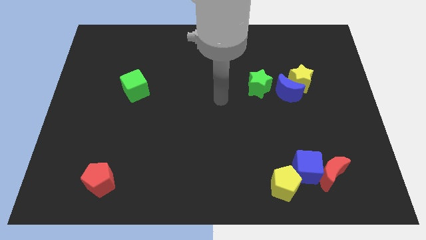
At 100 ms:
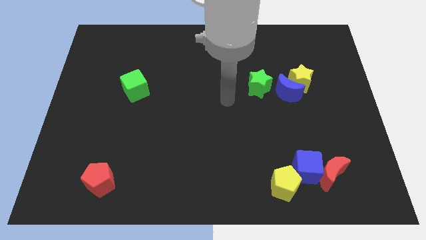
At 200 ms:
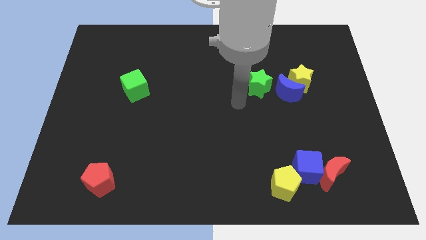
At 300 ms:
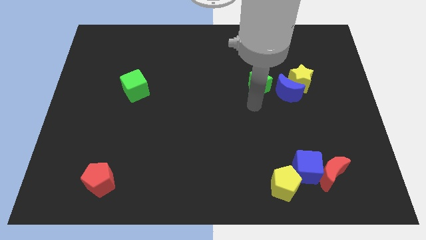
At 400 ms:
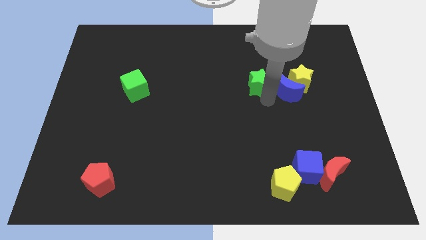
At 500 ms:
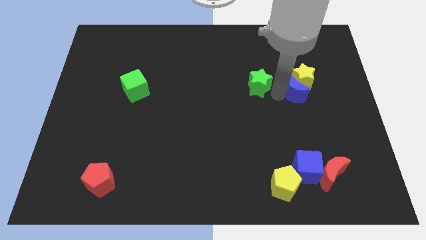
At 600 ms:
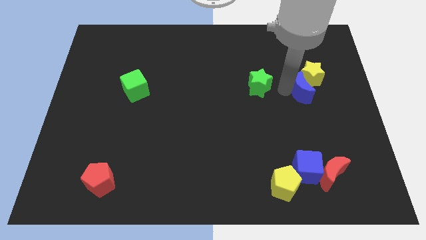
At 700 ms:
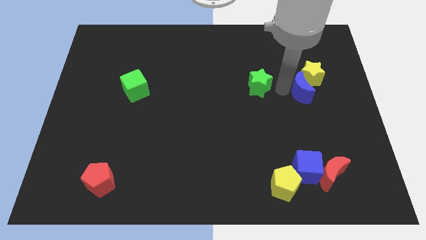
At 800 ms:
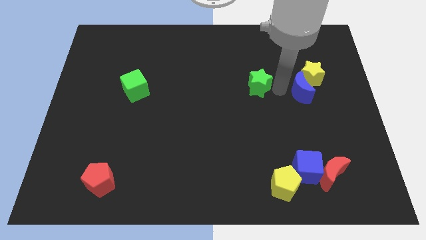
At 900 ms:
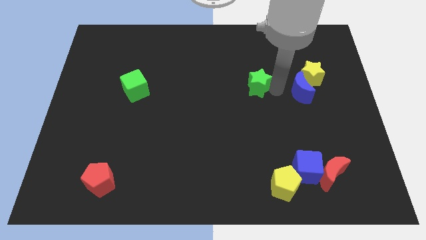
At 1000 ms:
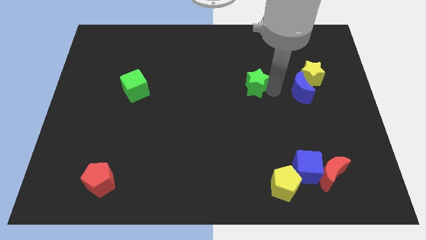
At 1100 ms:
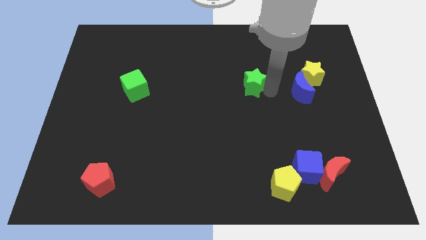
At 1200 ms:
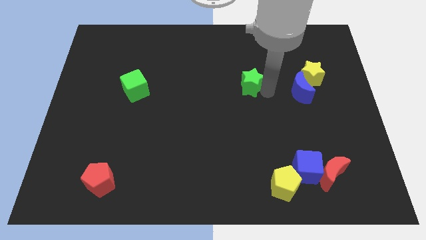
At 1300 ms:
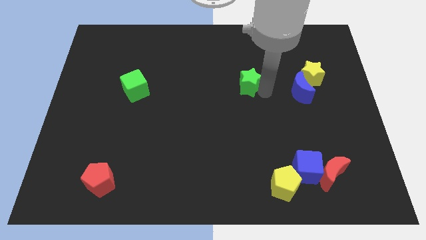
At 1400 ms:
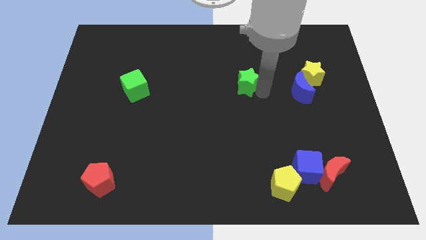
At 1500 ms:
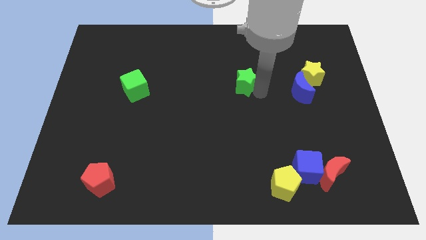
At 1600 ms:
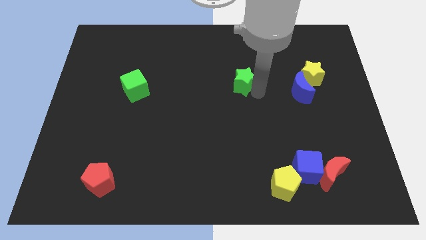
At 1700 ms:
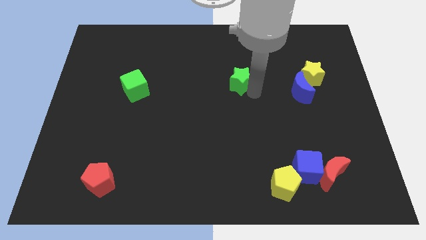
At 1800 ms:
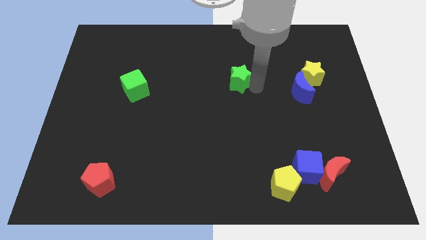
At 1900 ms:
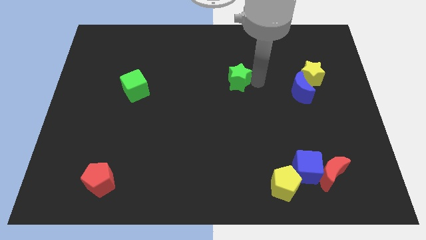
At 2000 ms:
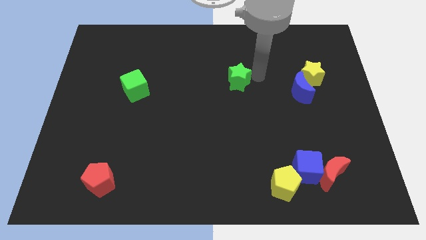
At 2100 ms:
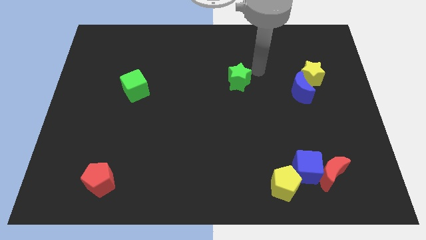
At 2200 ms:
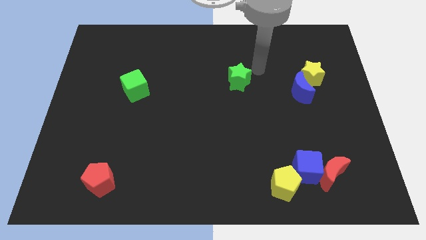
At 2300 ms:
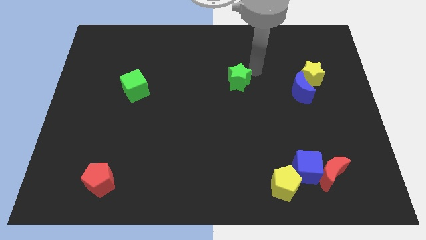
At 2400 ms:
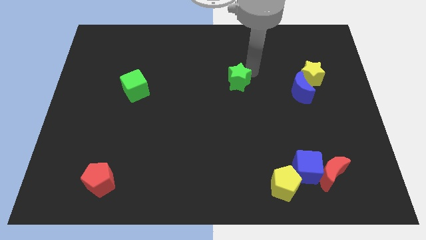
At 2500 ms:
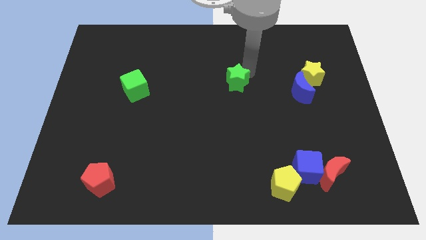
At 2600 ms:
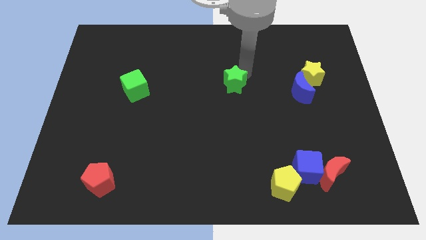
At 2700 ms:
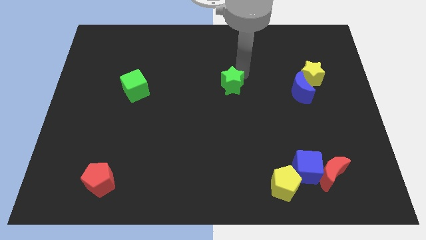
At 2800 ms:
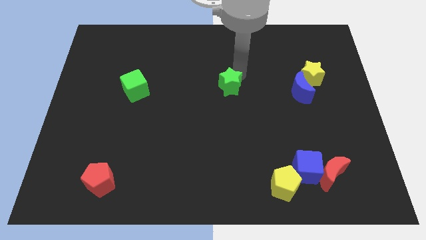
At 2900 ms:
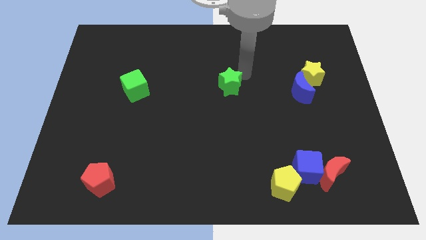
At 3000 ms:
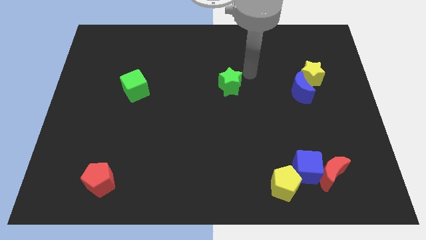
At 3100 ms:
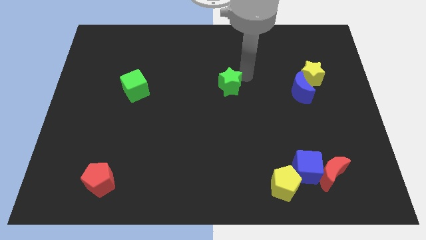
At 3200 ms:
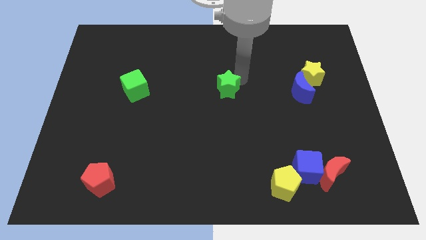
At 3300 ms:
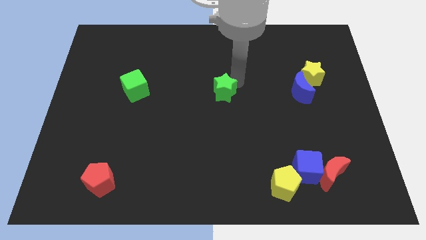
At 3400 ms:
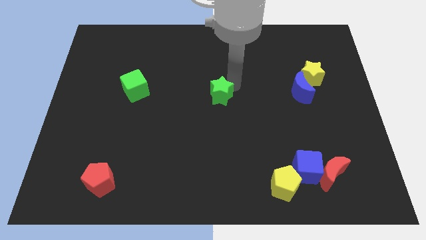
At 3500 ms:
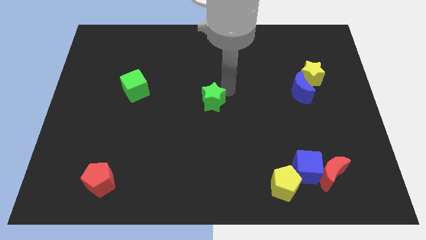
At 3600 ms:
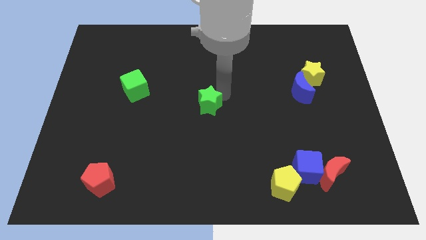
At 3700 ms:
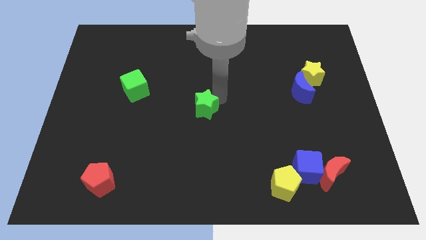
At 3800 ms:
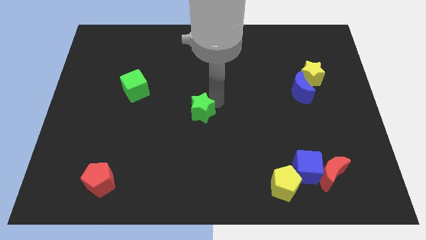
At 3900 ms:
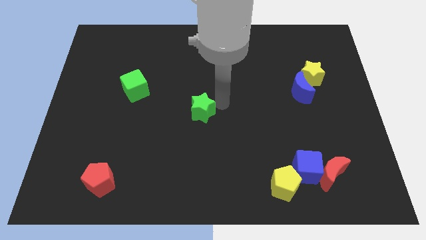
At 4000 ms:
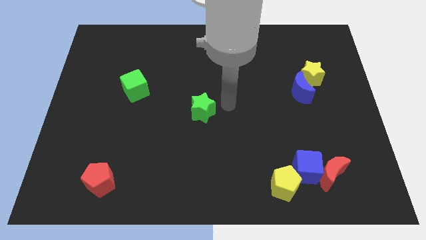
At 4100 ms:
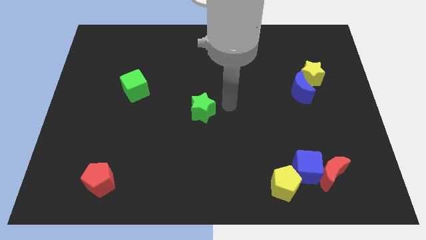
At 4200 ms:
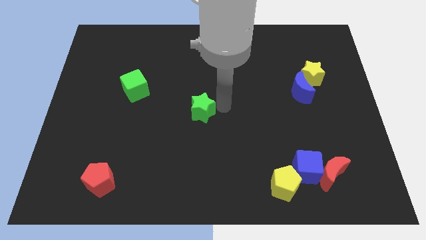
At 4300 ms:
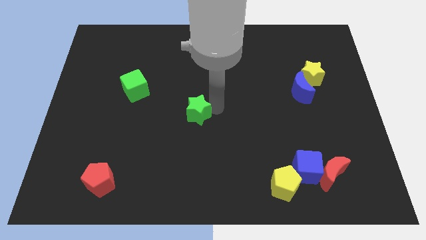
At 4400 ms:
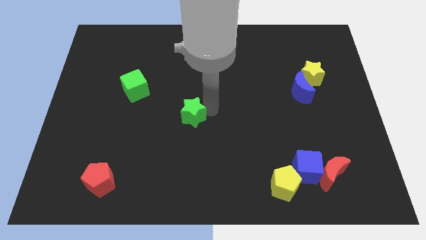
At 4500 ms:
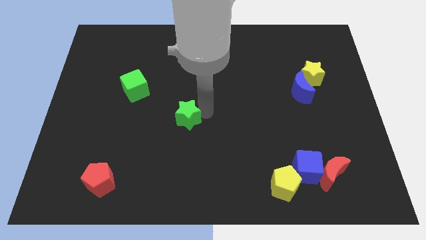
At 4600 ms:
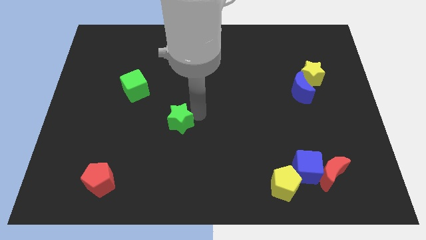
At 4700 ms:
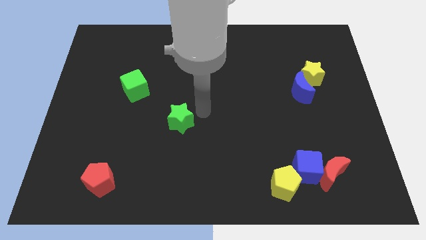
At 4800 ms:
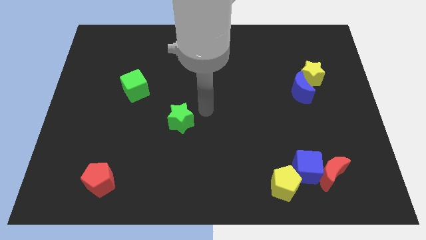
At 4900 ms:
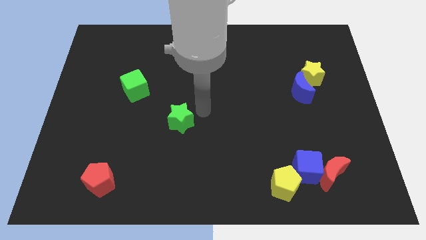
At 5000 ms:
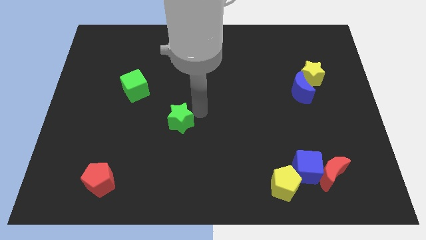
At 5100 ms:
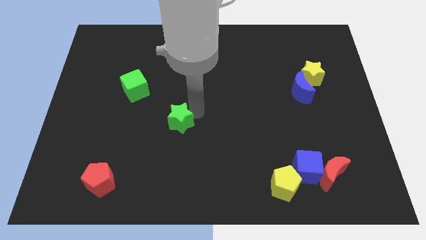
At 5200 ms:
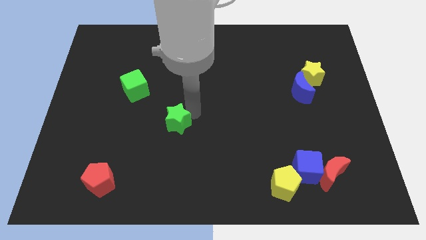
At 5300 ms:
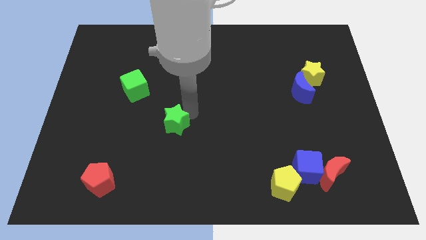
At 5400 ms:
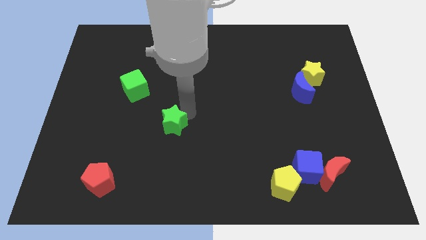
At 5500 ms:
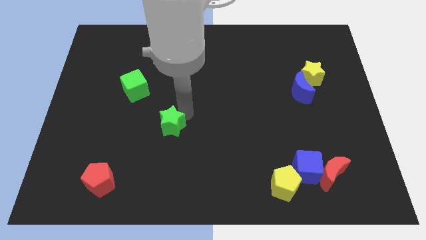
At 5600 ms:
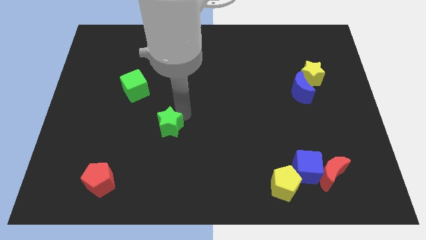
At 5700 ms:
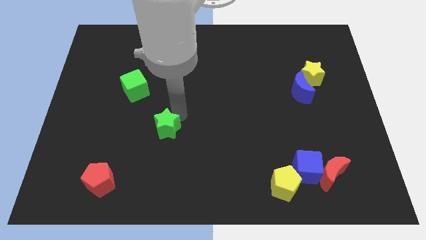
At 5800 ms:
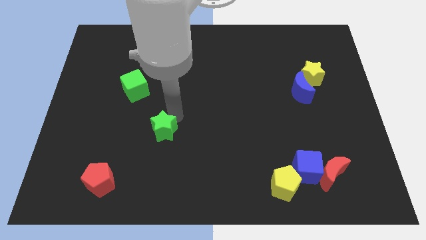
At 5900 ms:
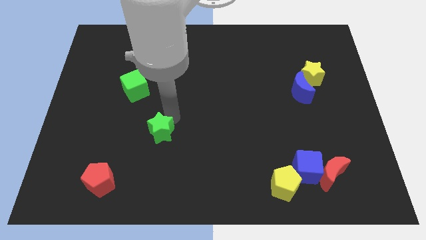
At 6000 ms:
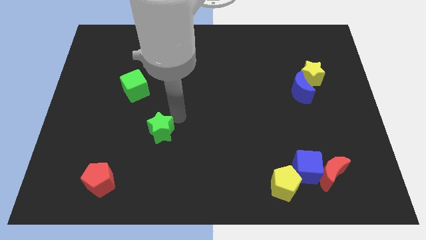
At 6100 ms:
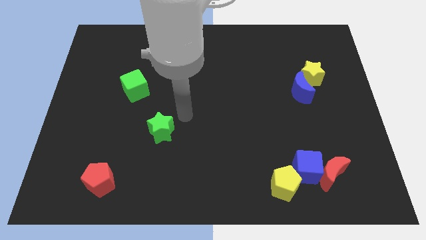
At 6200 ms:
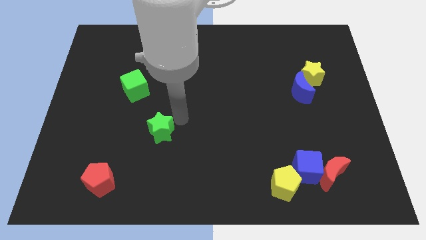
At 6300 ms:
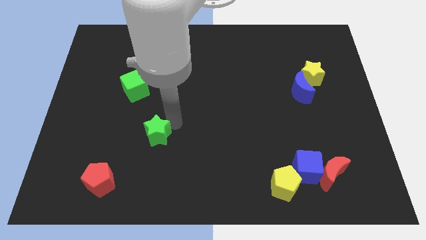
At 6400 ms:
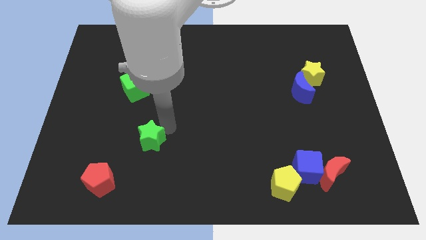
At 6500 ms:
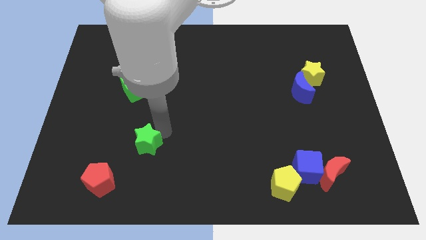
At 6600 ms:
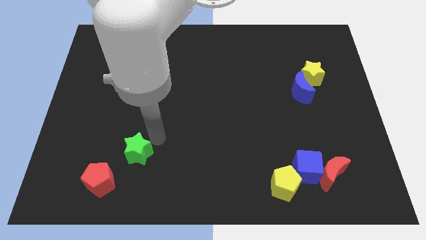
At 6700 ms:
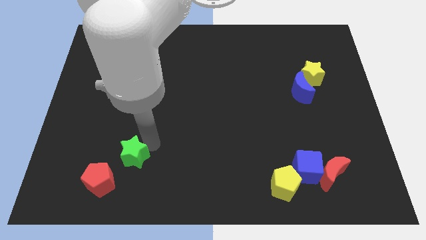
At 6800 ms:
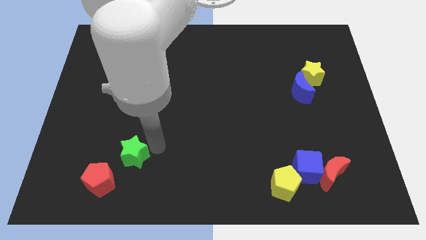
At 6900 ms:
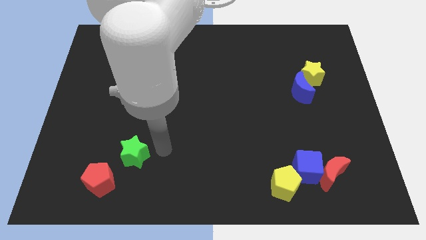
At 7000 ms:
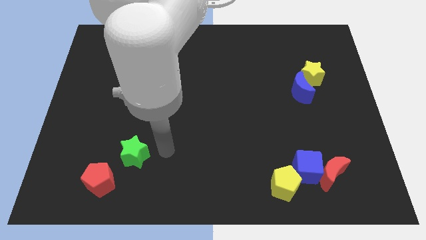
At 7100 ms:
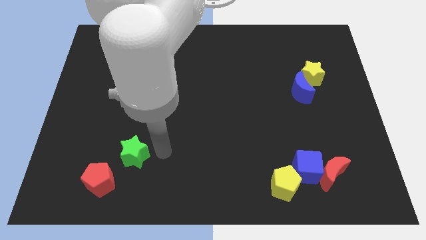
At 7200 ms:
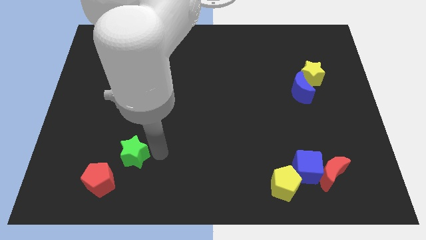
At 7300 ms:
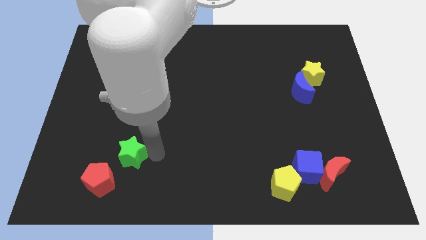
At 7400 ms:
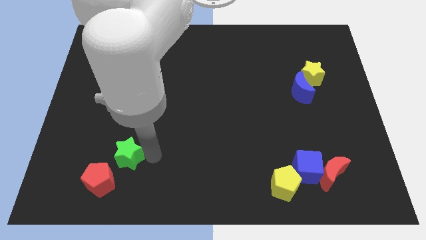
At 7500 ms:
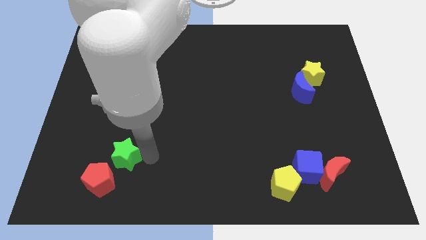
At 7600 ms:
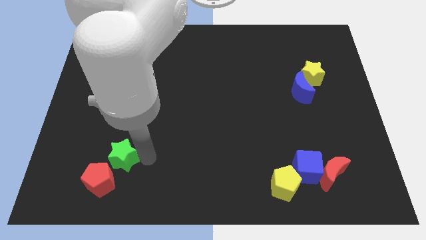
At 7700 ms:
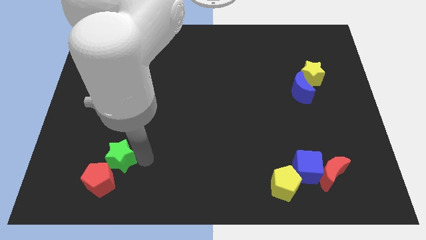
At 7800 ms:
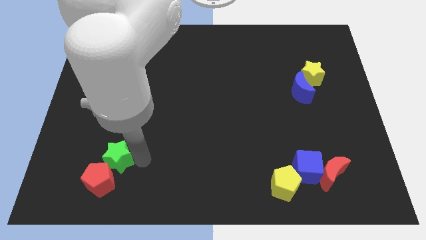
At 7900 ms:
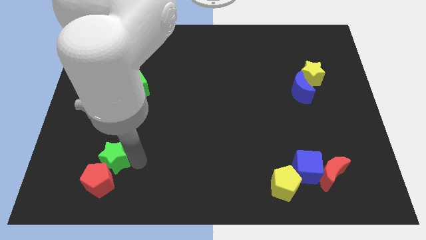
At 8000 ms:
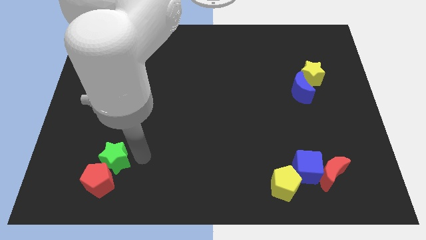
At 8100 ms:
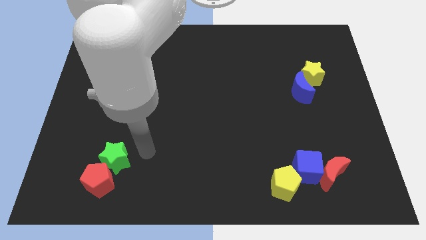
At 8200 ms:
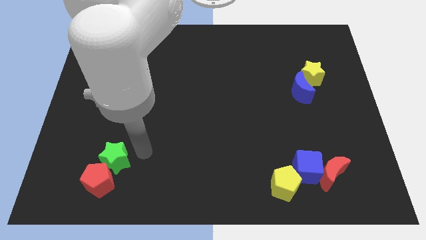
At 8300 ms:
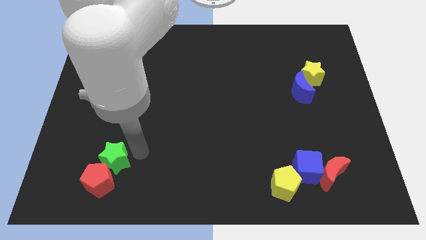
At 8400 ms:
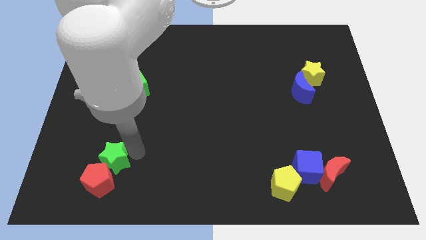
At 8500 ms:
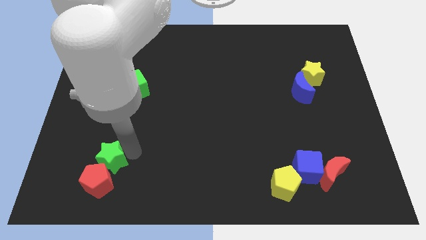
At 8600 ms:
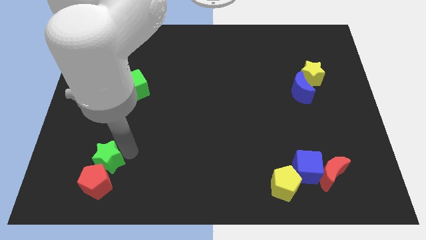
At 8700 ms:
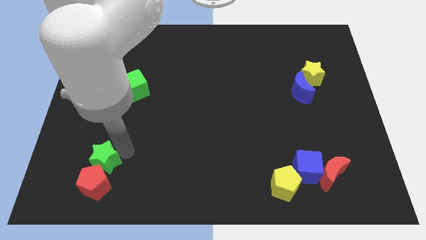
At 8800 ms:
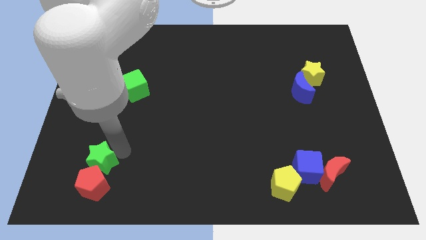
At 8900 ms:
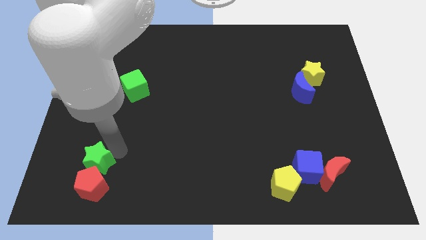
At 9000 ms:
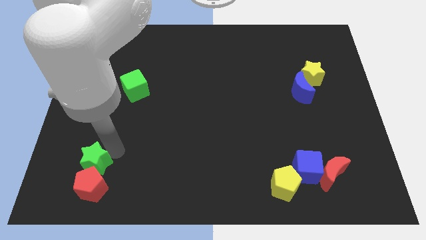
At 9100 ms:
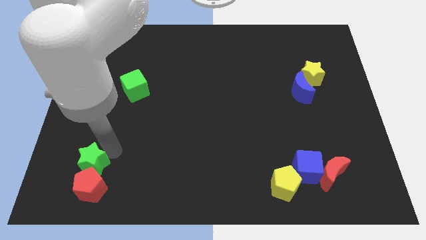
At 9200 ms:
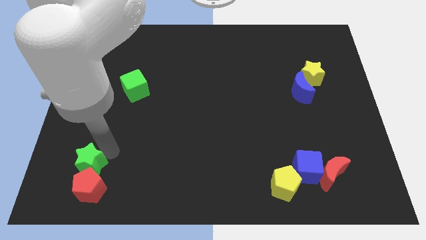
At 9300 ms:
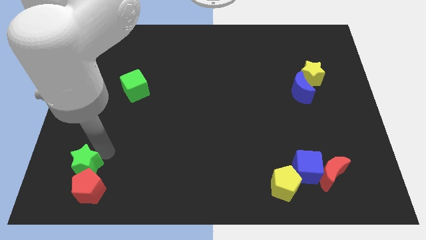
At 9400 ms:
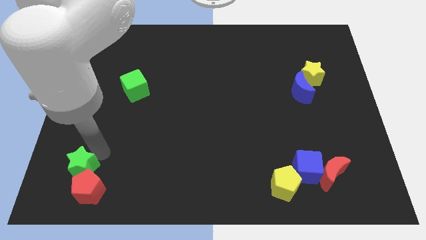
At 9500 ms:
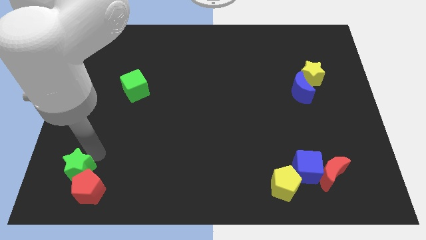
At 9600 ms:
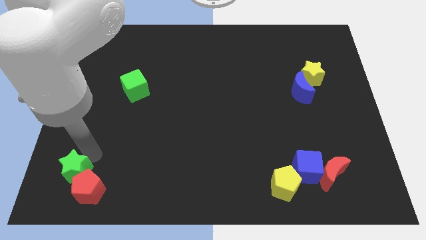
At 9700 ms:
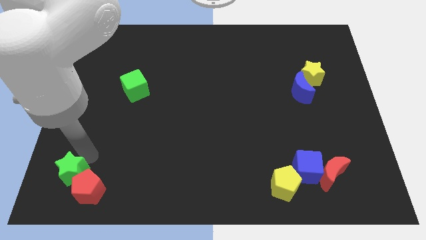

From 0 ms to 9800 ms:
move the green star to the bottom left
